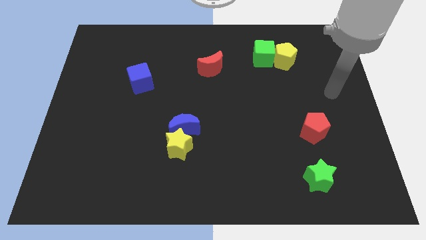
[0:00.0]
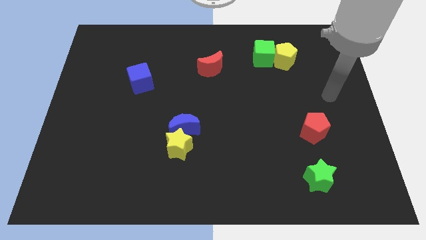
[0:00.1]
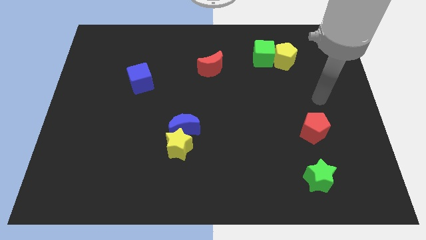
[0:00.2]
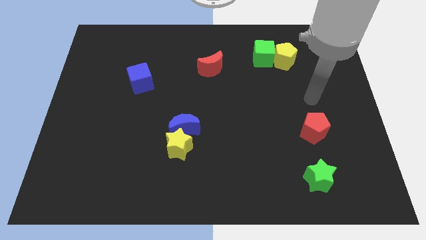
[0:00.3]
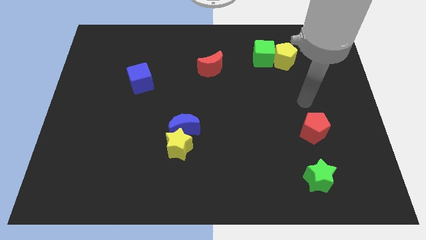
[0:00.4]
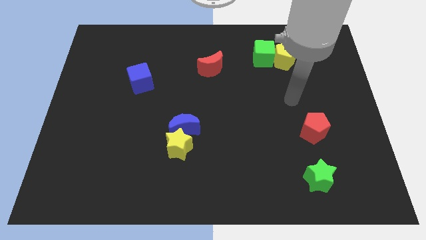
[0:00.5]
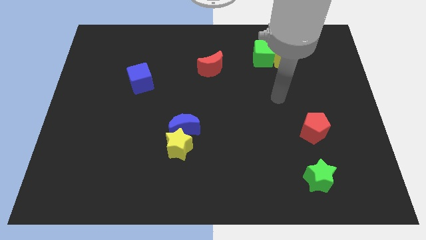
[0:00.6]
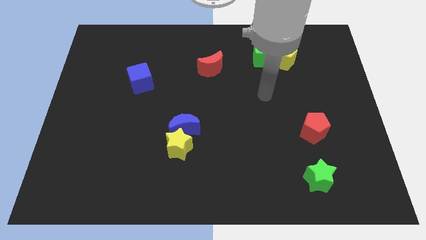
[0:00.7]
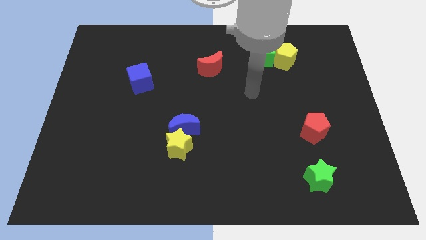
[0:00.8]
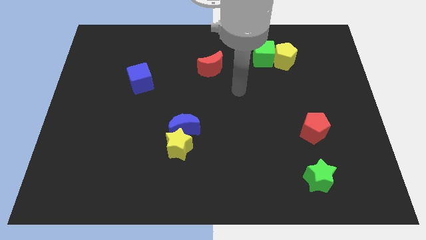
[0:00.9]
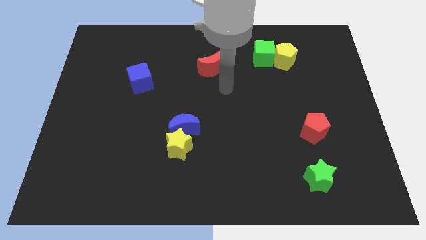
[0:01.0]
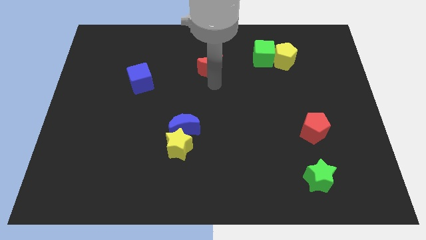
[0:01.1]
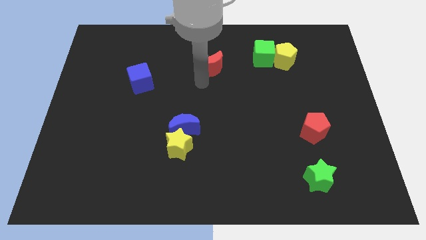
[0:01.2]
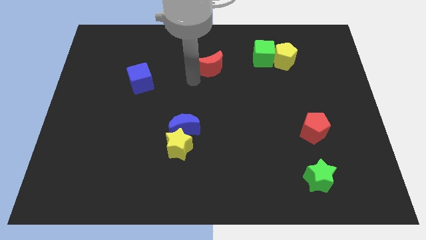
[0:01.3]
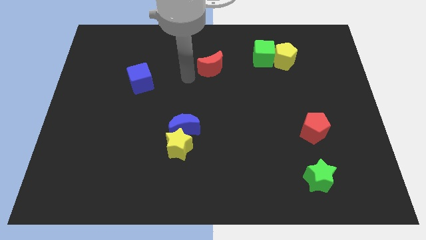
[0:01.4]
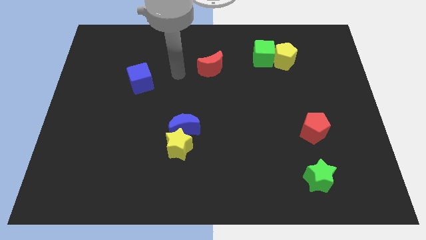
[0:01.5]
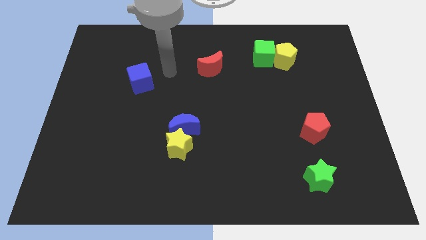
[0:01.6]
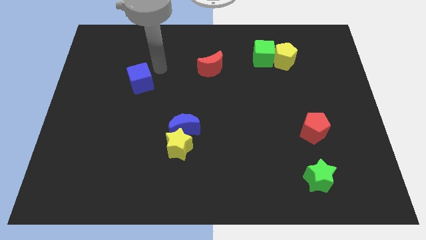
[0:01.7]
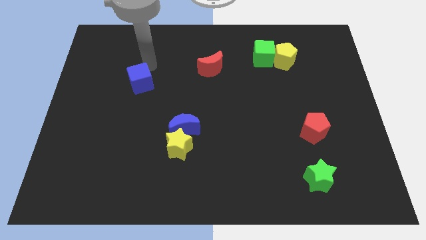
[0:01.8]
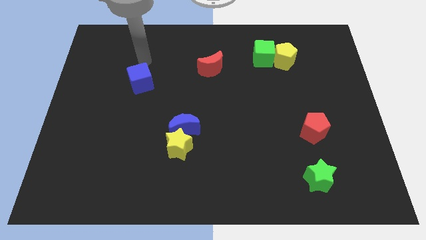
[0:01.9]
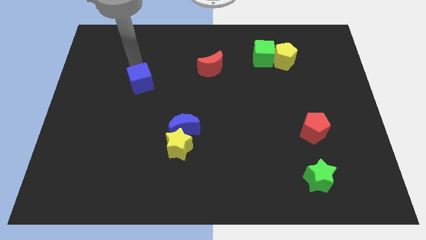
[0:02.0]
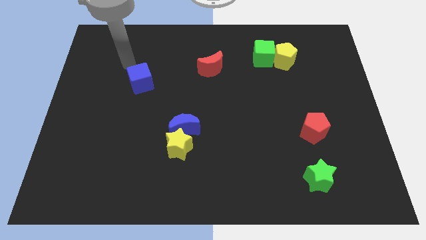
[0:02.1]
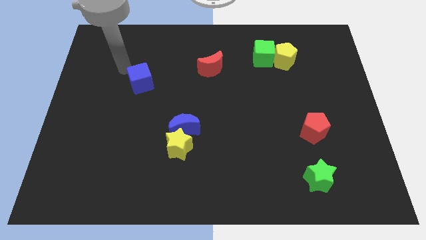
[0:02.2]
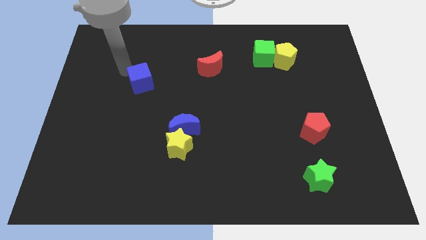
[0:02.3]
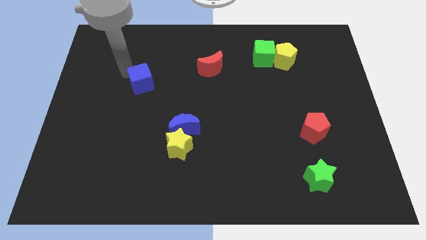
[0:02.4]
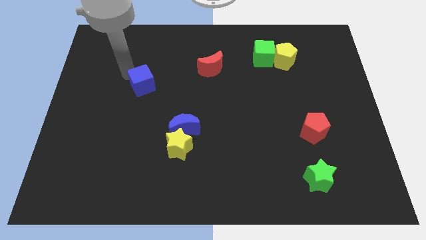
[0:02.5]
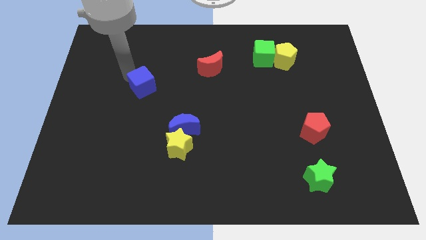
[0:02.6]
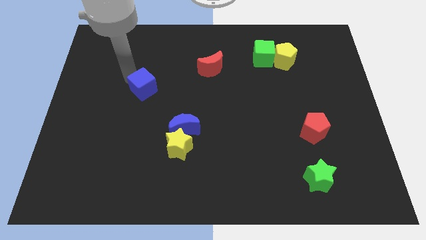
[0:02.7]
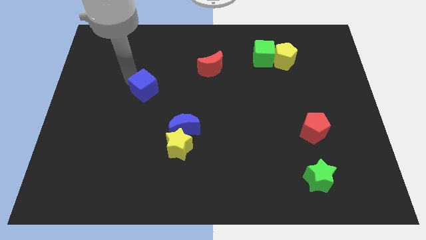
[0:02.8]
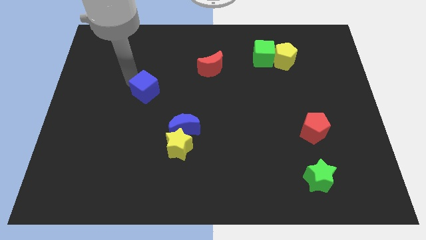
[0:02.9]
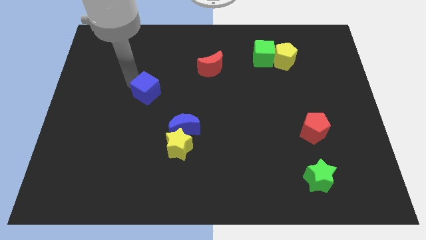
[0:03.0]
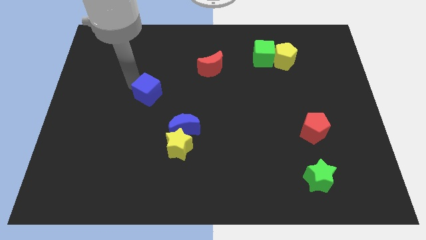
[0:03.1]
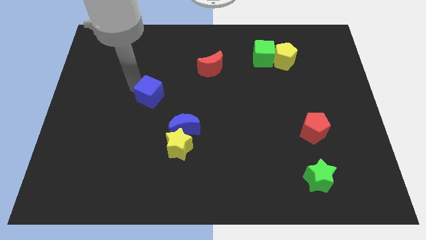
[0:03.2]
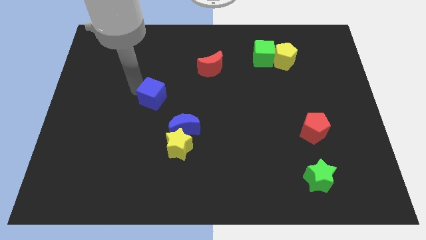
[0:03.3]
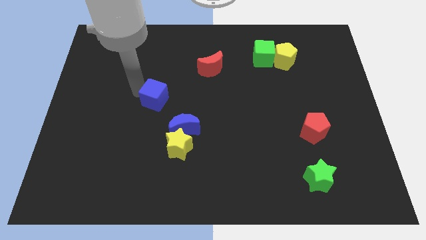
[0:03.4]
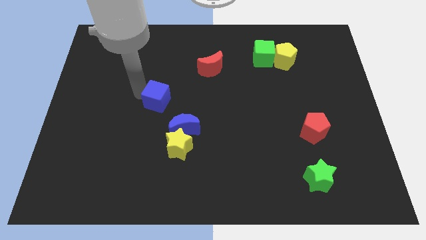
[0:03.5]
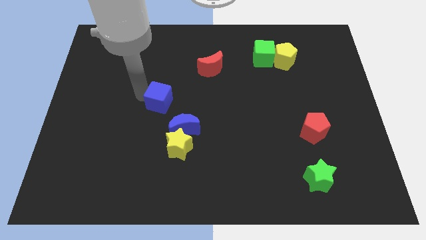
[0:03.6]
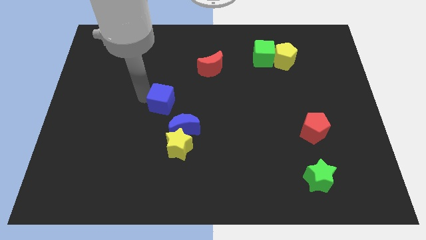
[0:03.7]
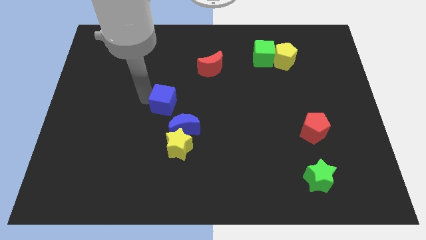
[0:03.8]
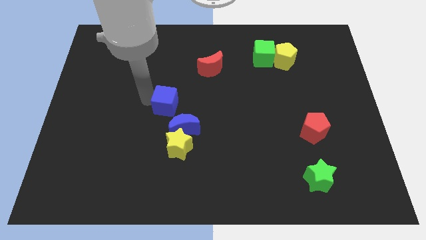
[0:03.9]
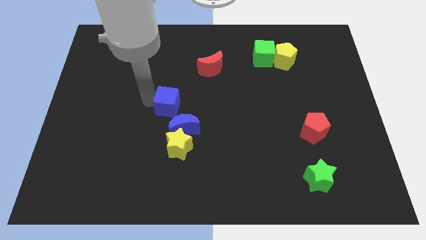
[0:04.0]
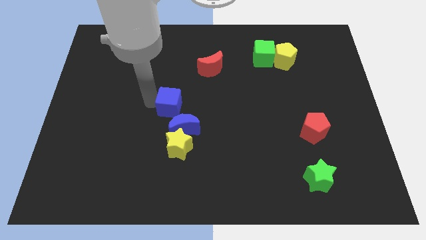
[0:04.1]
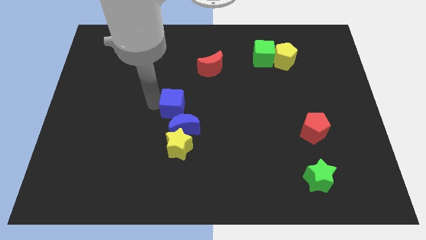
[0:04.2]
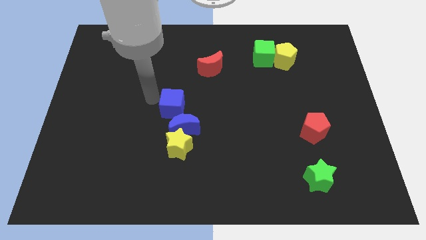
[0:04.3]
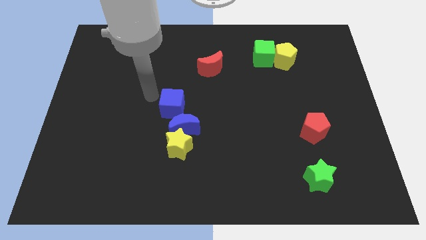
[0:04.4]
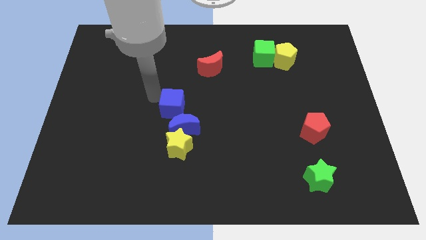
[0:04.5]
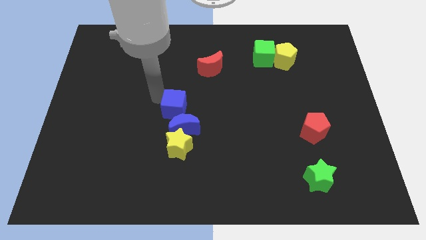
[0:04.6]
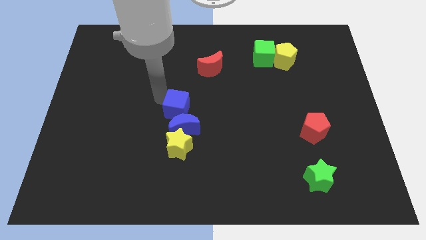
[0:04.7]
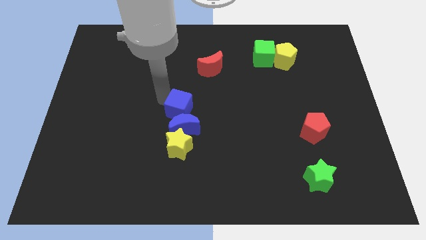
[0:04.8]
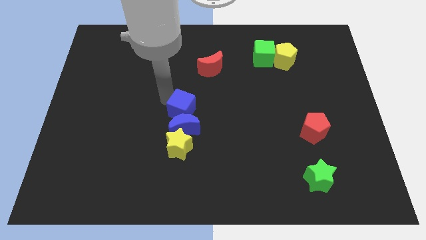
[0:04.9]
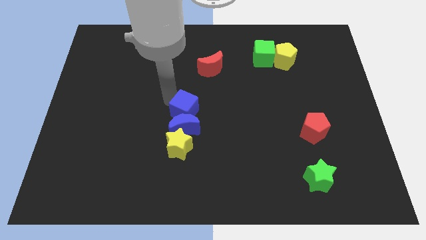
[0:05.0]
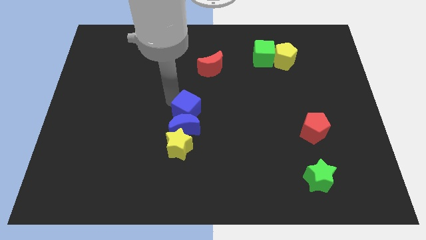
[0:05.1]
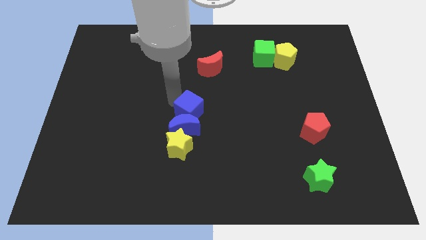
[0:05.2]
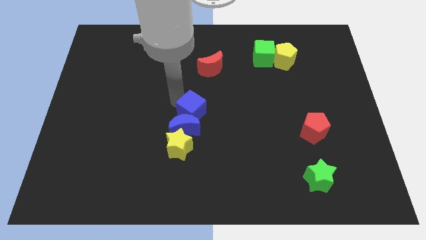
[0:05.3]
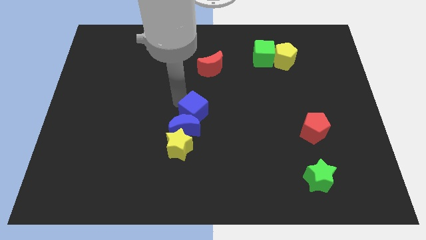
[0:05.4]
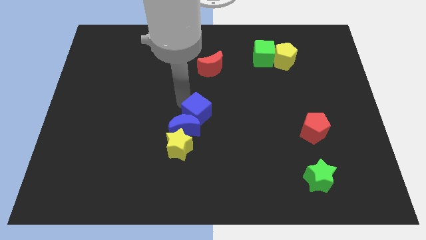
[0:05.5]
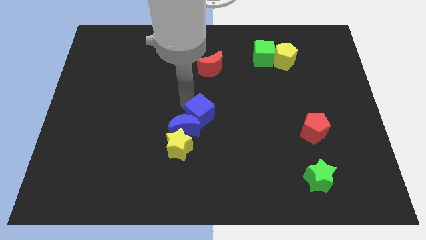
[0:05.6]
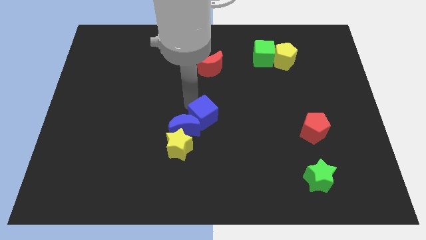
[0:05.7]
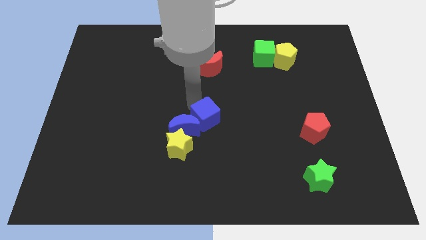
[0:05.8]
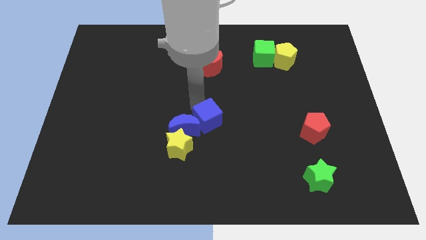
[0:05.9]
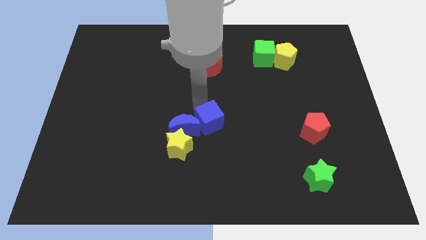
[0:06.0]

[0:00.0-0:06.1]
push the blue cube down and to the right diagonally

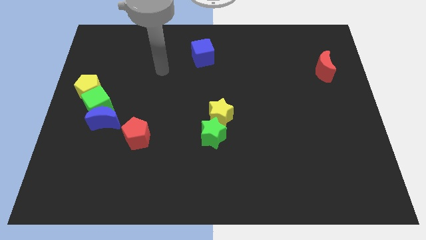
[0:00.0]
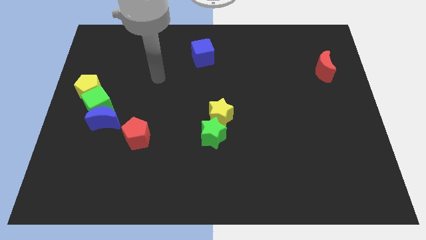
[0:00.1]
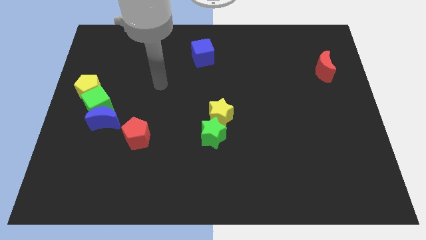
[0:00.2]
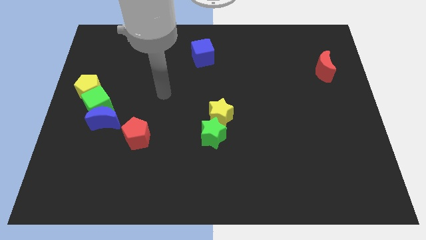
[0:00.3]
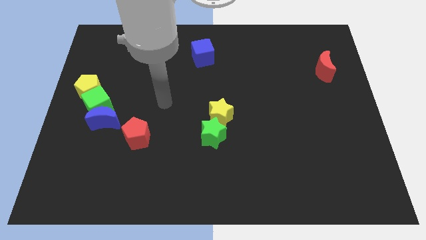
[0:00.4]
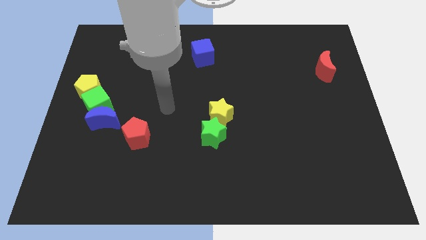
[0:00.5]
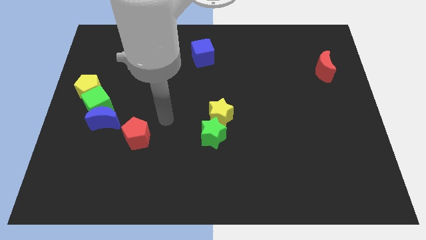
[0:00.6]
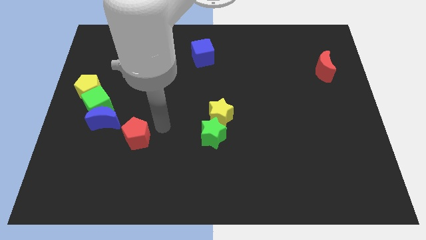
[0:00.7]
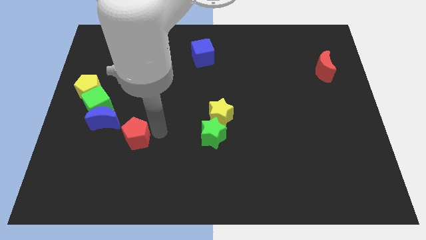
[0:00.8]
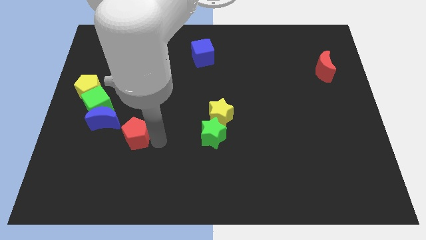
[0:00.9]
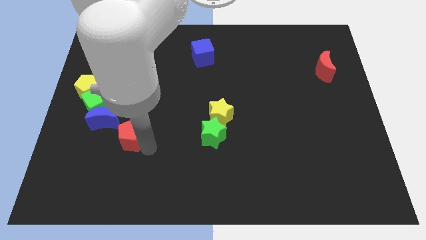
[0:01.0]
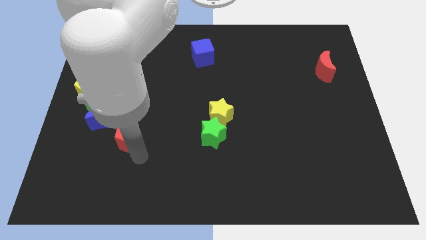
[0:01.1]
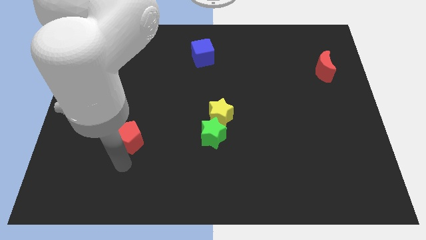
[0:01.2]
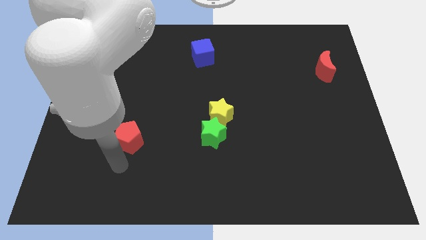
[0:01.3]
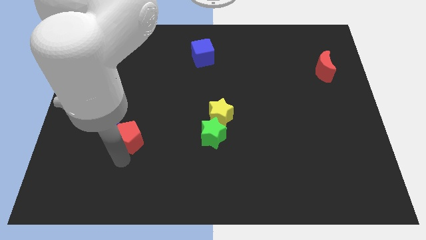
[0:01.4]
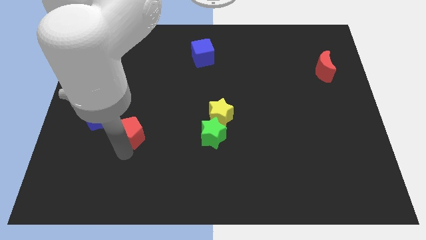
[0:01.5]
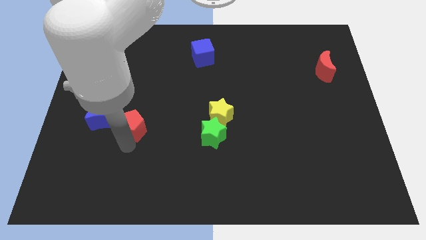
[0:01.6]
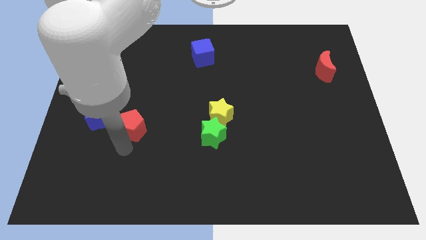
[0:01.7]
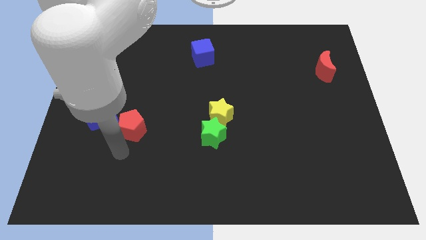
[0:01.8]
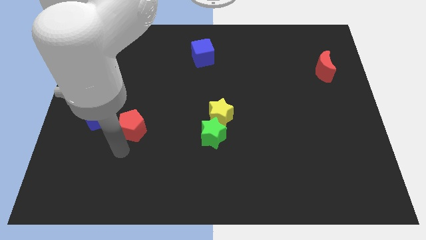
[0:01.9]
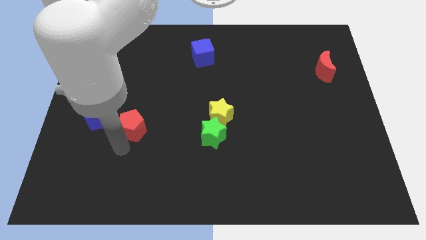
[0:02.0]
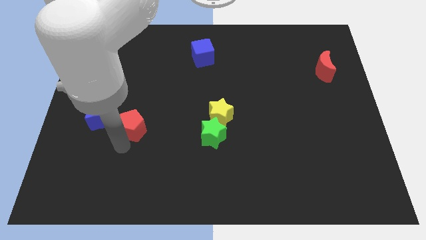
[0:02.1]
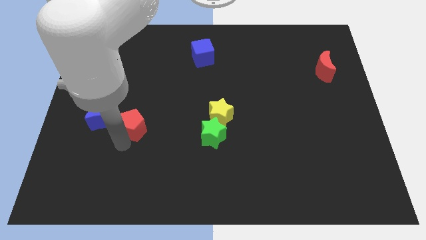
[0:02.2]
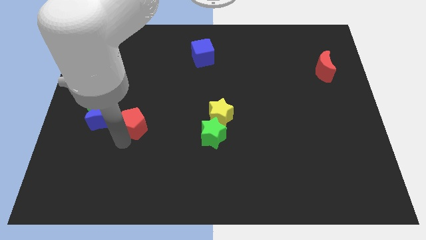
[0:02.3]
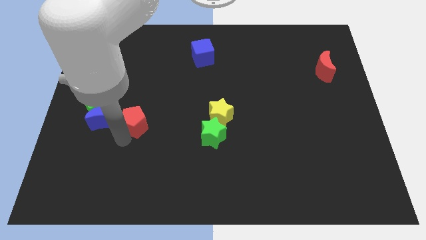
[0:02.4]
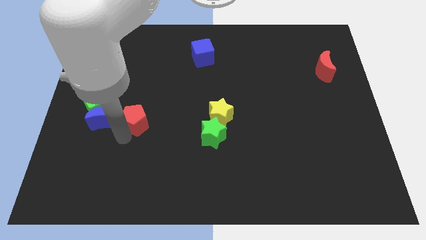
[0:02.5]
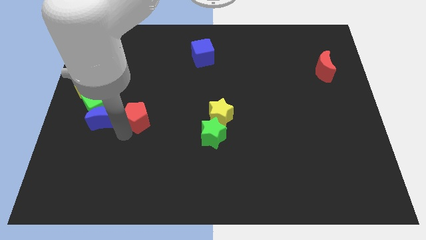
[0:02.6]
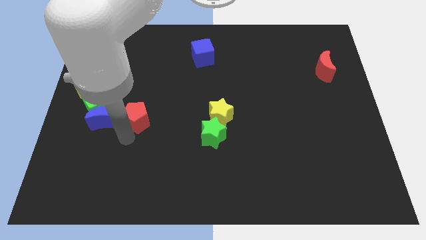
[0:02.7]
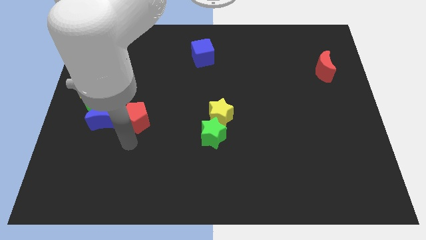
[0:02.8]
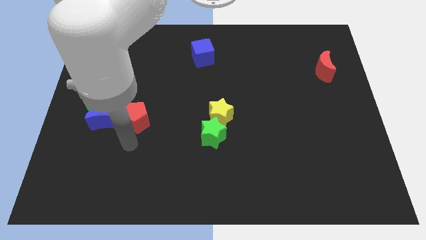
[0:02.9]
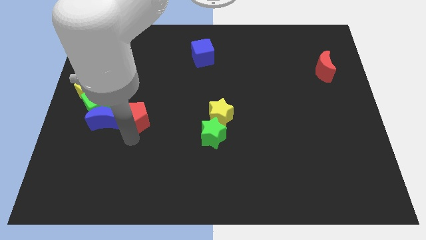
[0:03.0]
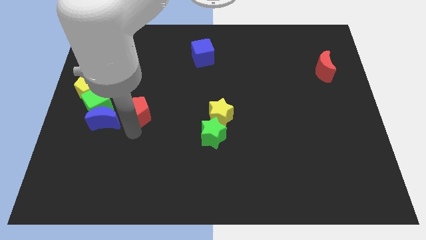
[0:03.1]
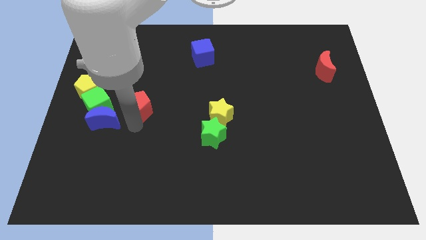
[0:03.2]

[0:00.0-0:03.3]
move the red pentagon upwards a bit
